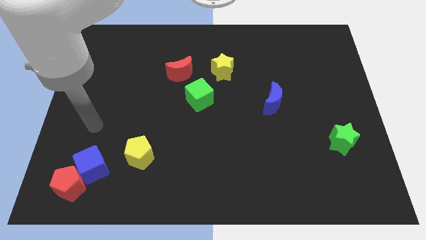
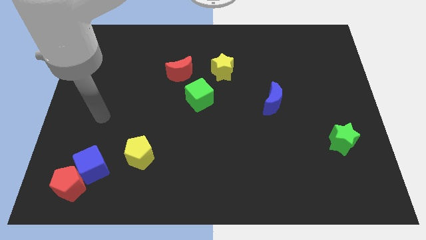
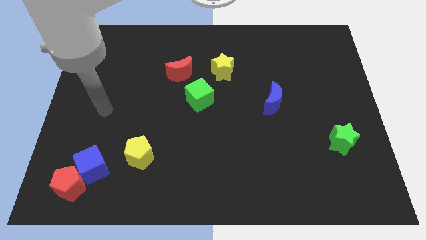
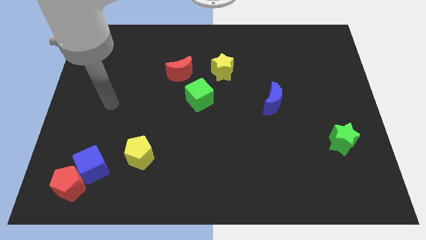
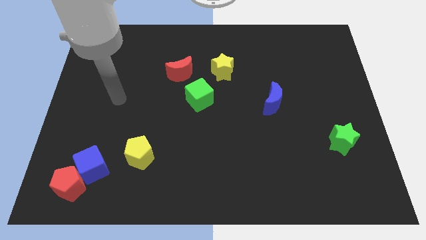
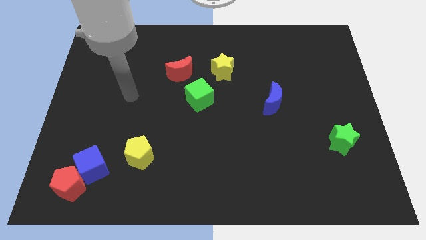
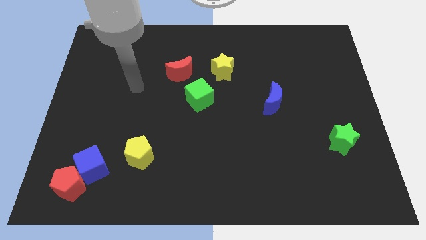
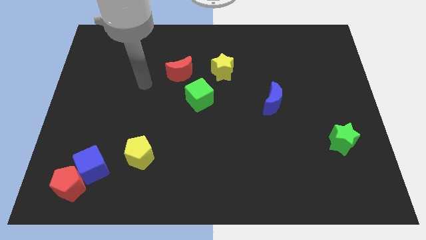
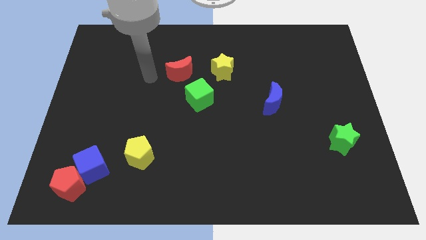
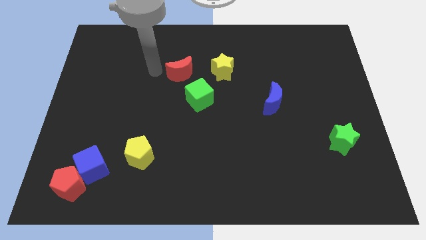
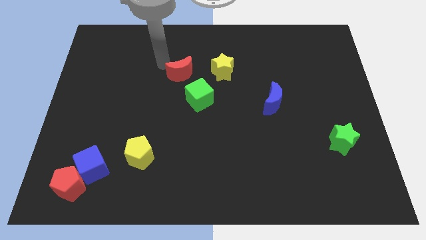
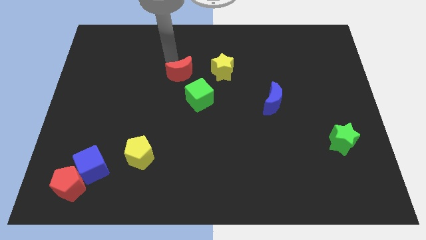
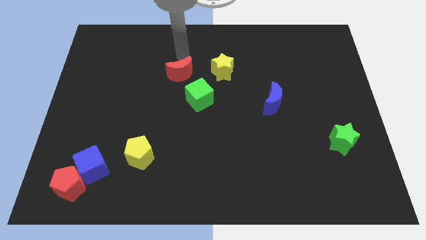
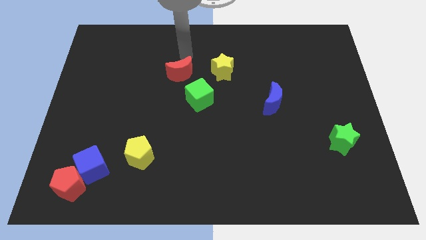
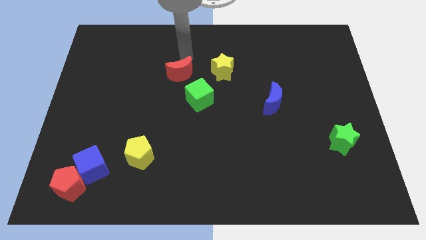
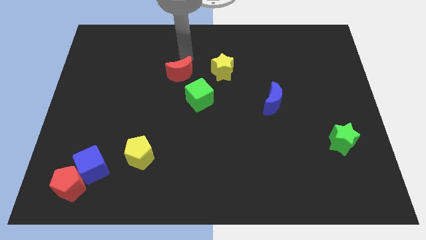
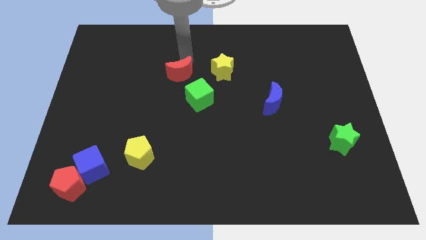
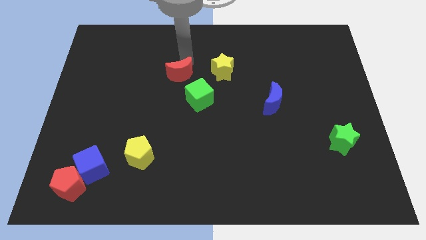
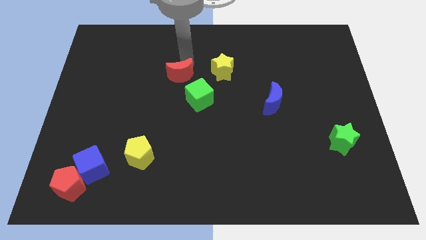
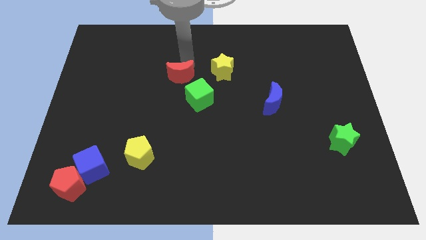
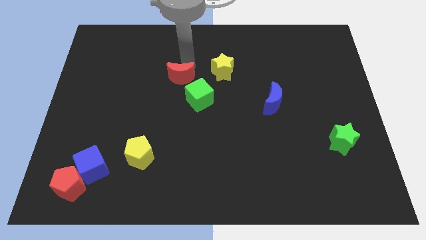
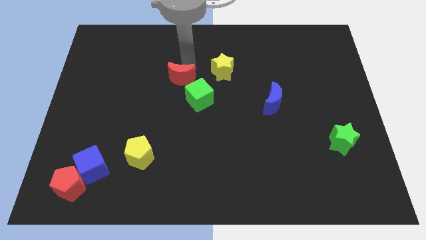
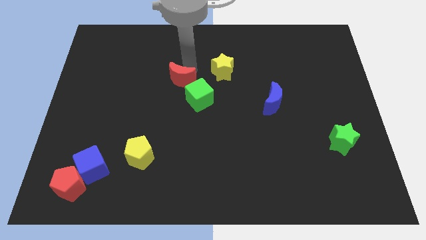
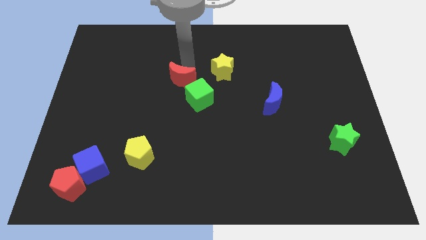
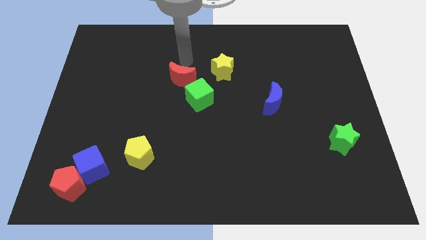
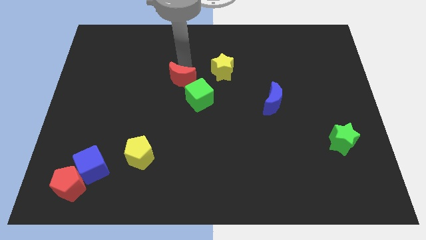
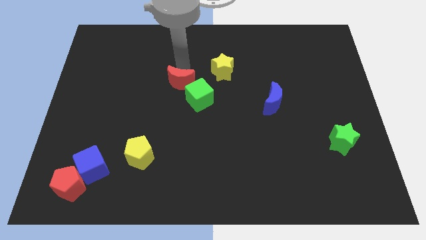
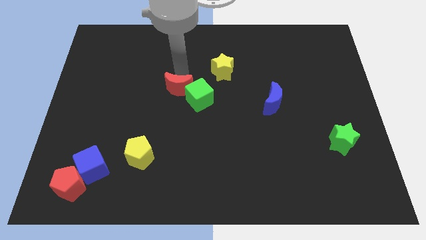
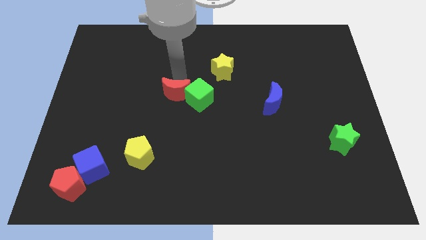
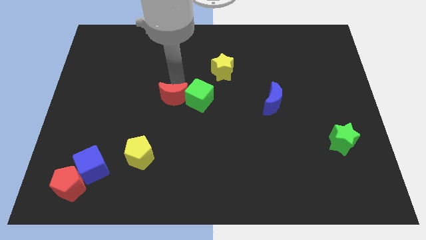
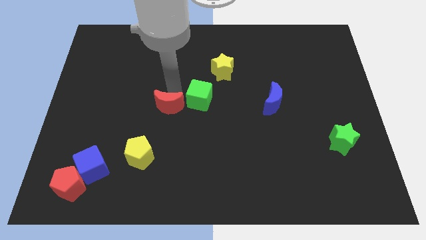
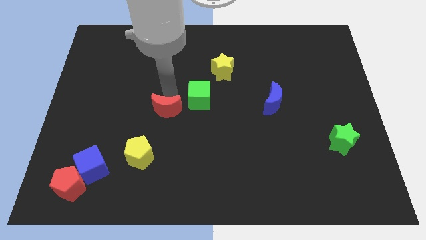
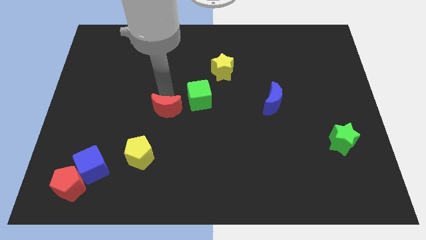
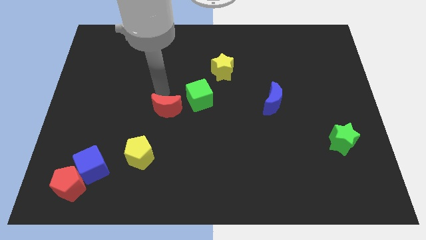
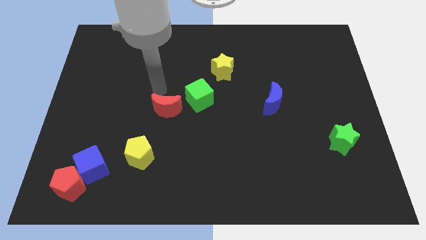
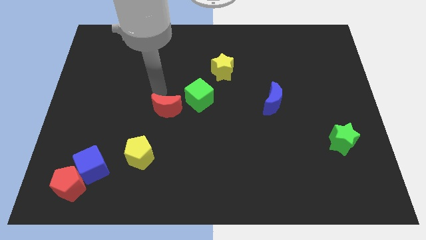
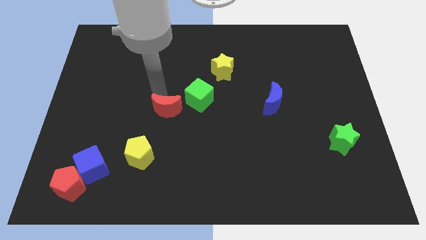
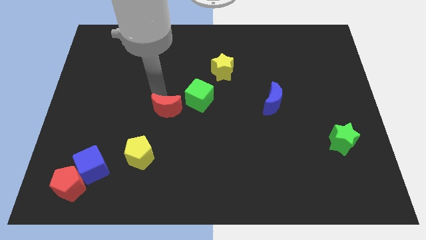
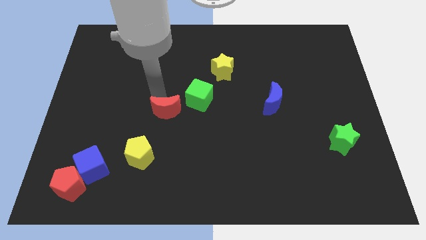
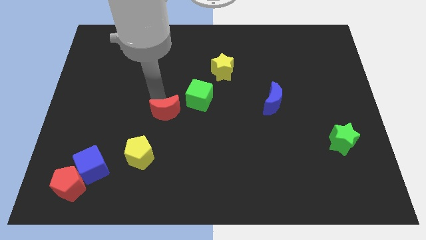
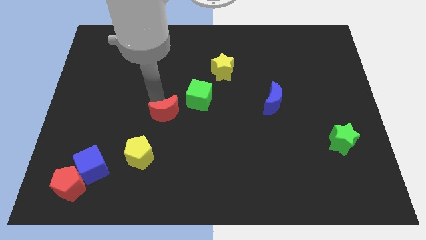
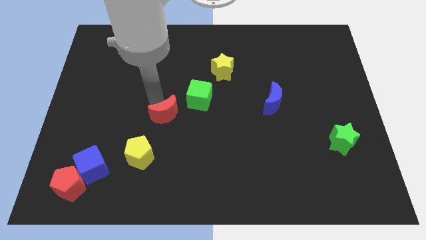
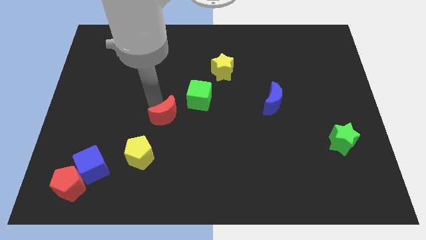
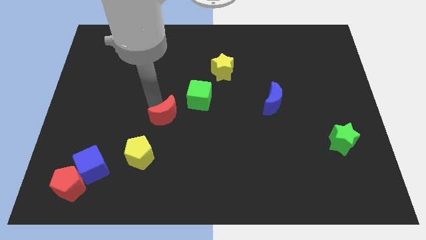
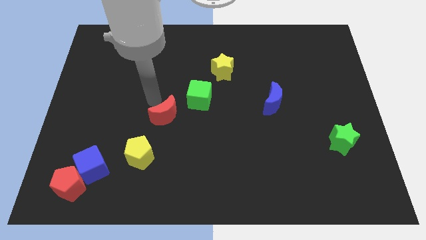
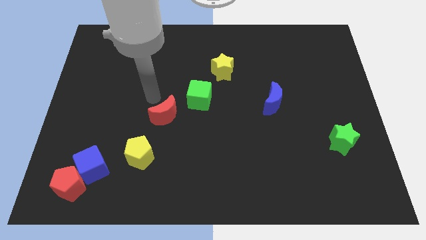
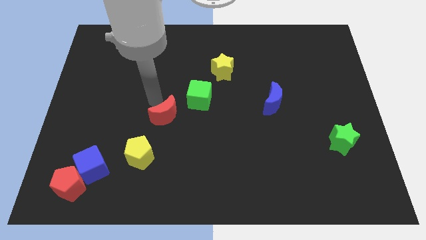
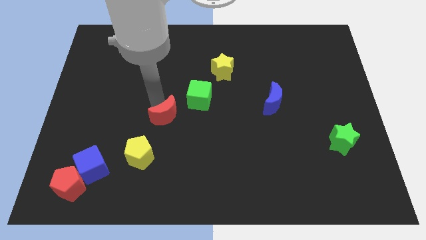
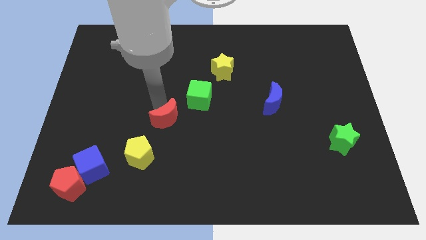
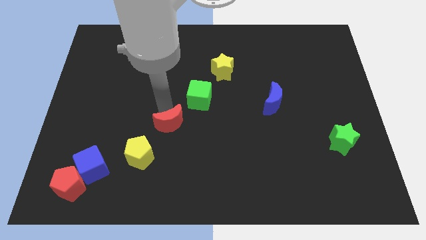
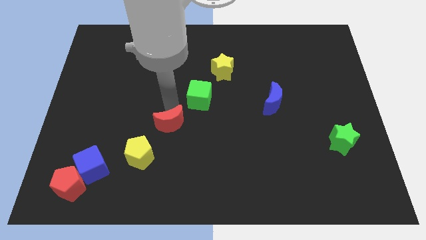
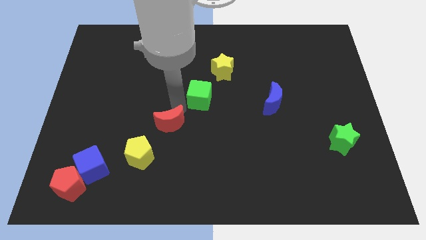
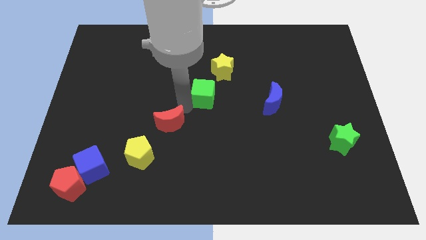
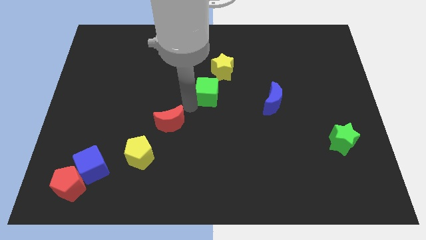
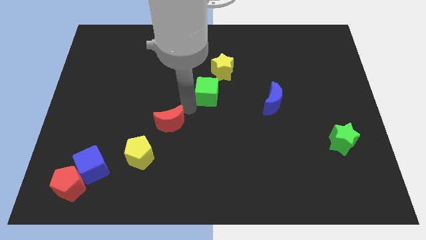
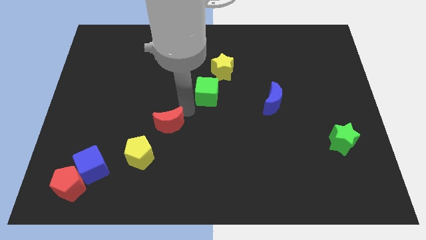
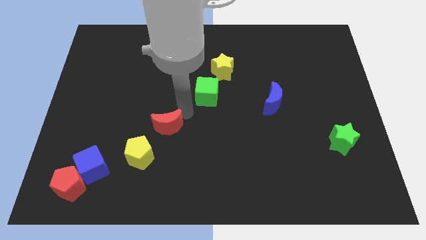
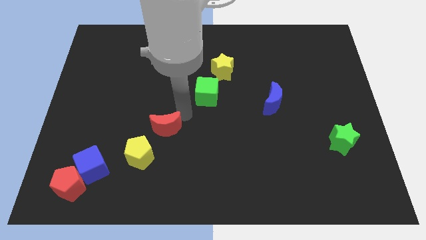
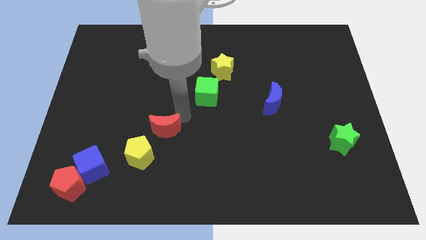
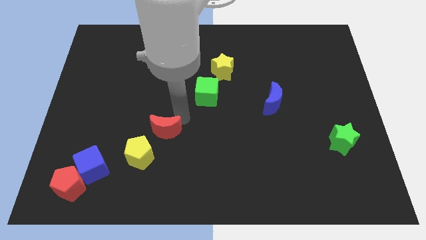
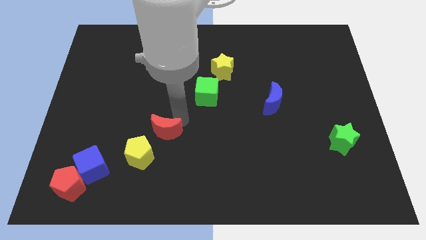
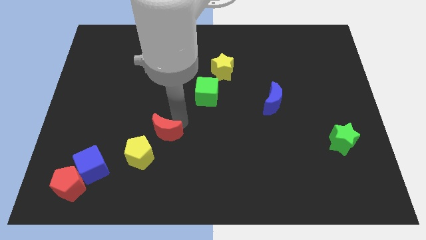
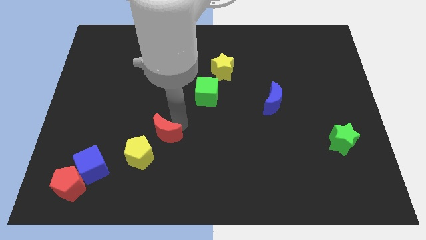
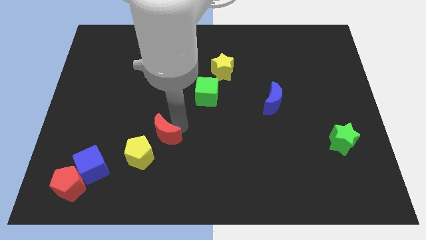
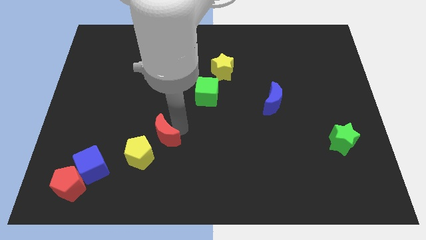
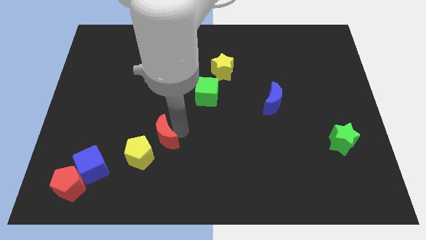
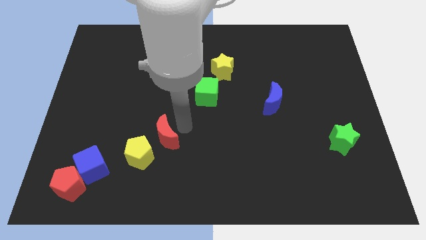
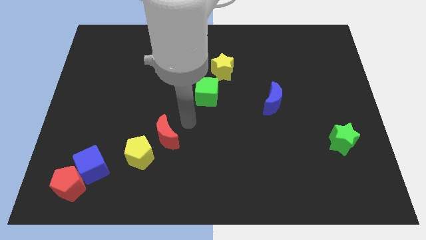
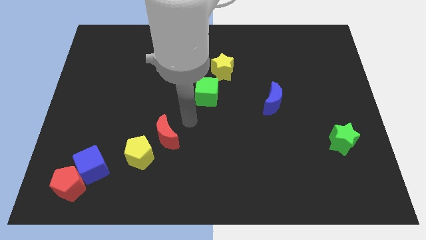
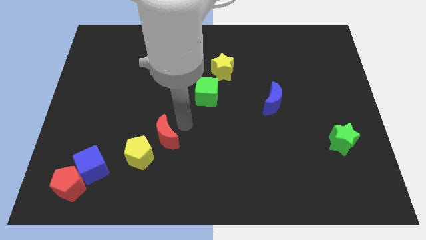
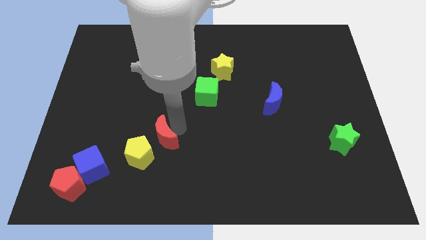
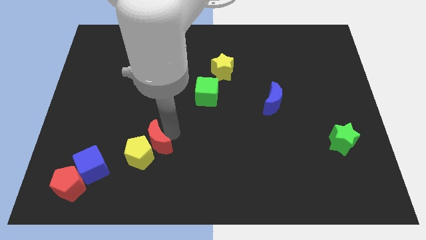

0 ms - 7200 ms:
put the red moon towards the yellow pentagon

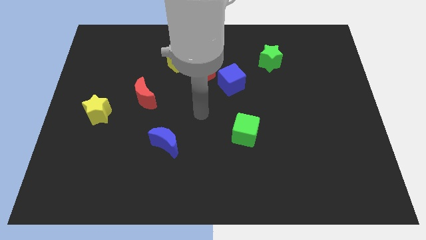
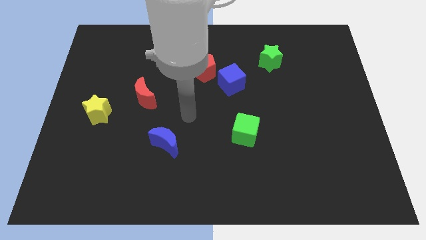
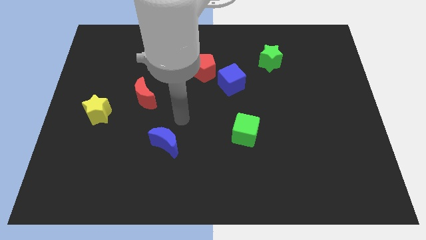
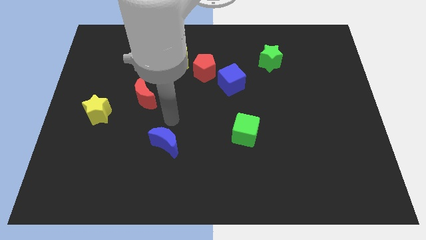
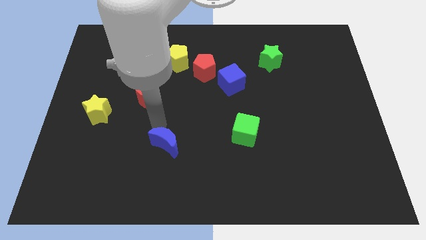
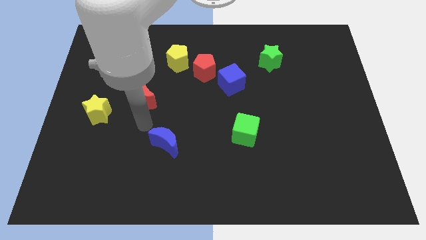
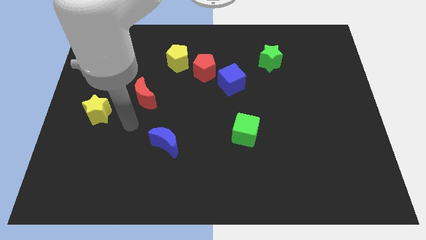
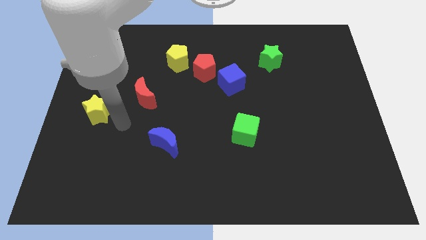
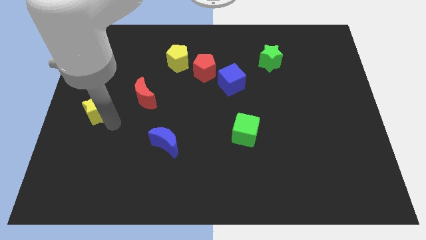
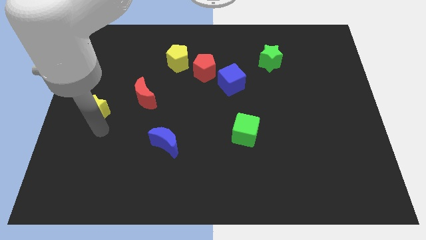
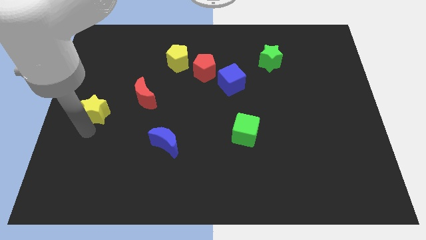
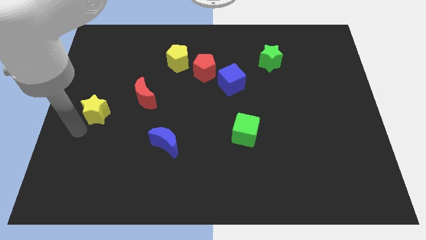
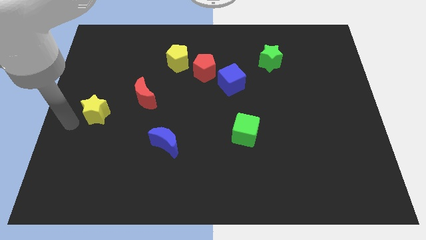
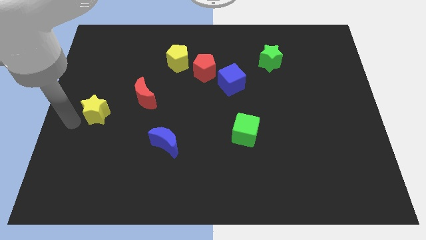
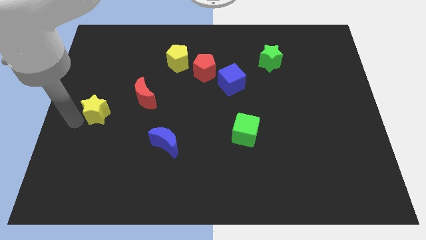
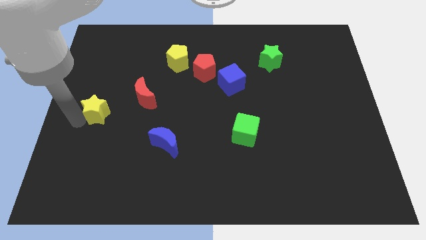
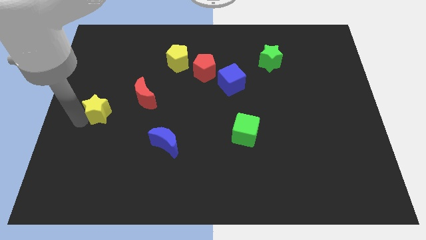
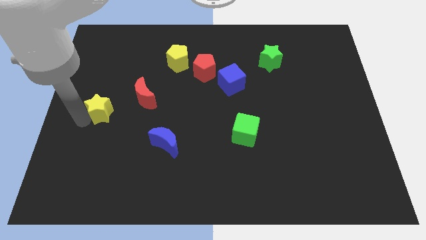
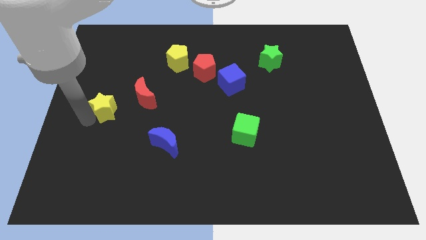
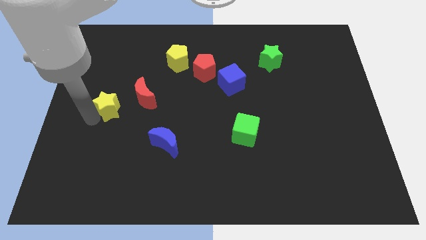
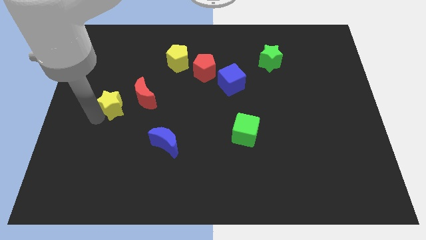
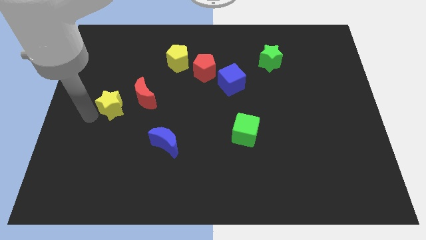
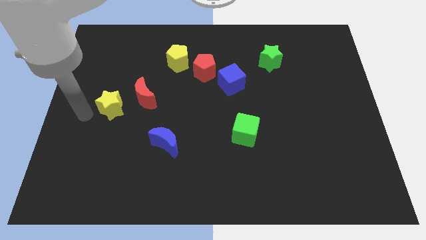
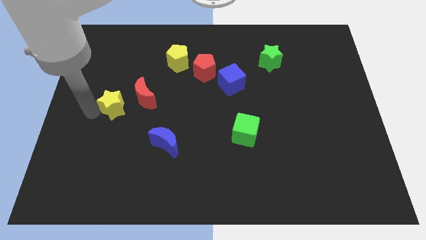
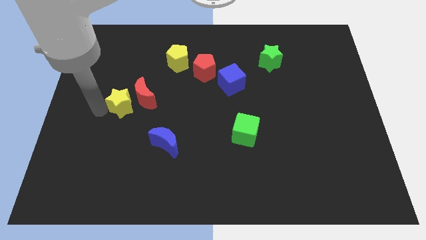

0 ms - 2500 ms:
push the yellow star close to the red moon
